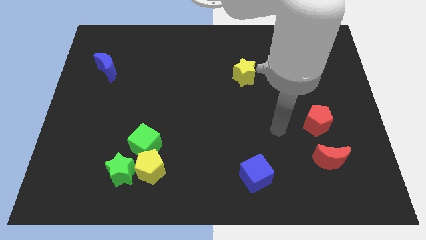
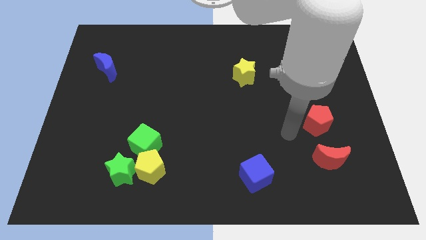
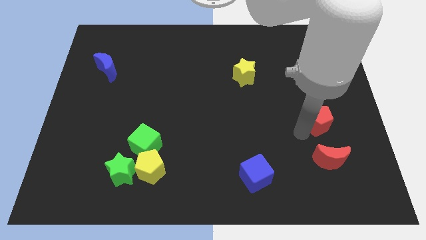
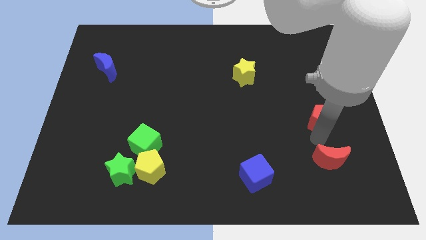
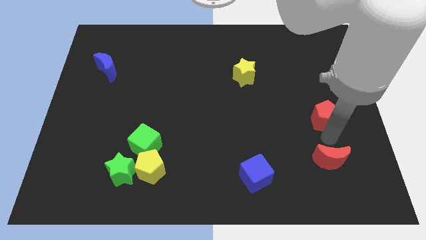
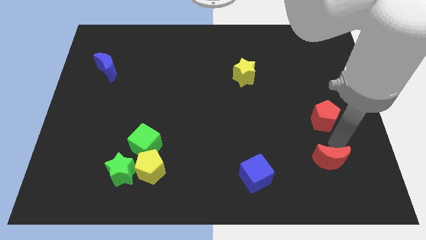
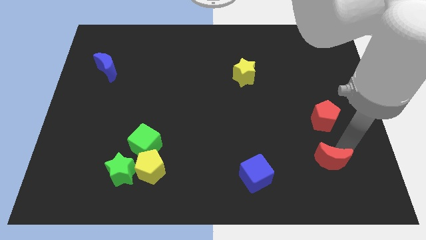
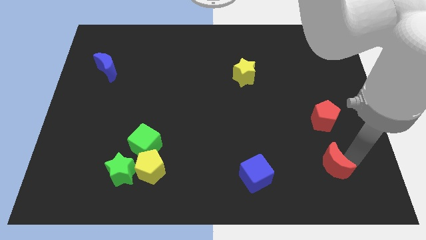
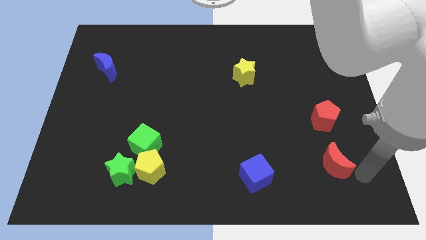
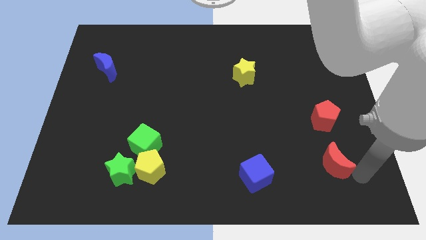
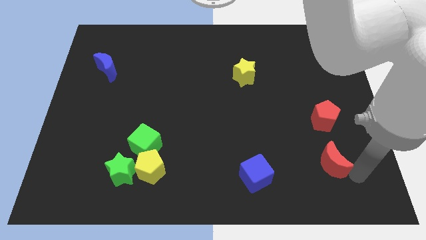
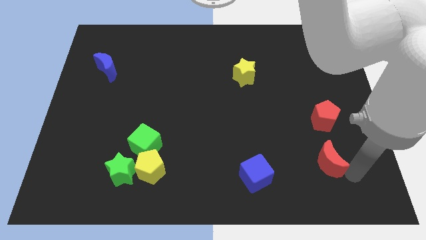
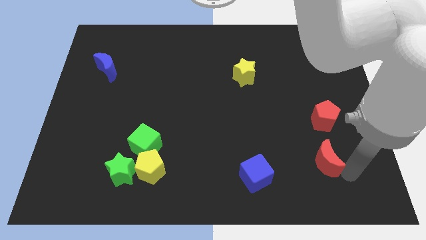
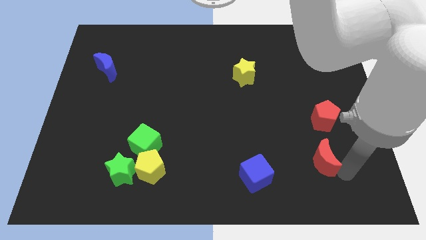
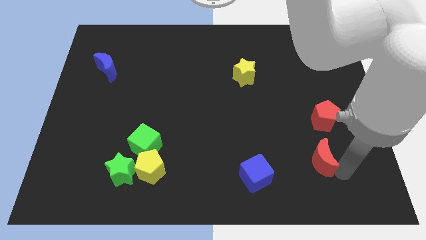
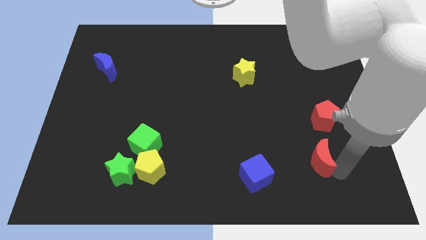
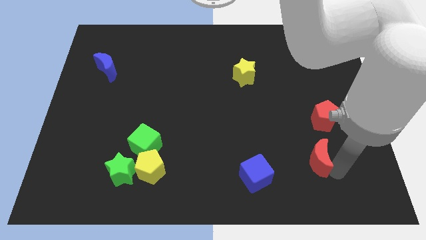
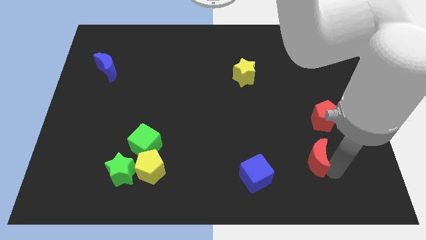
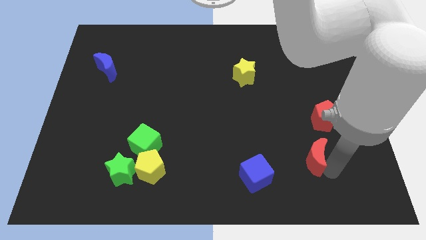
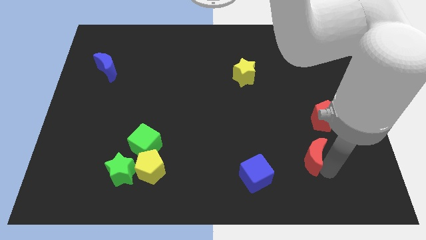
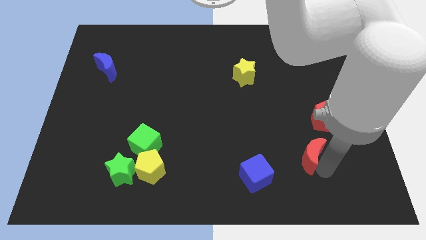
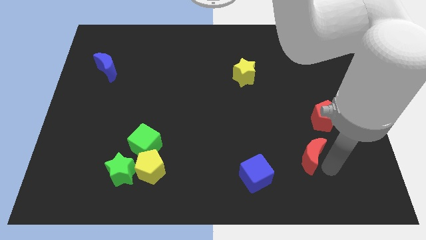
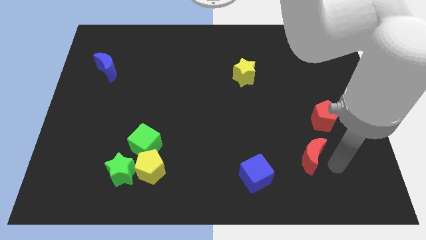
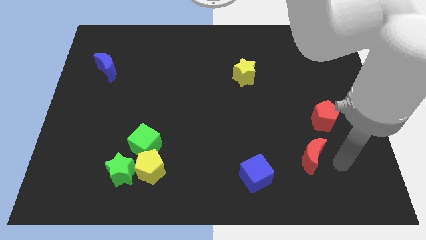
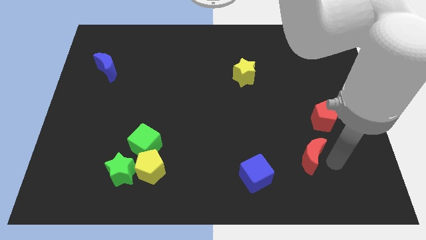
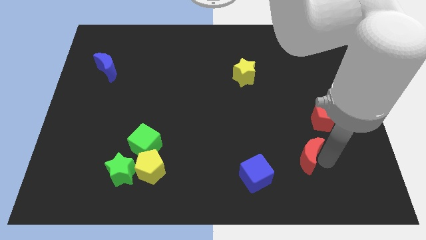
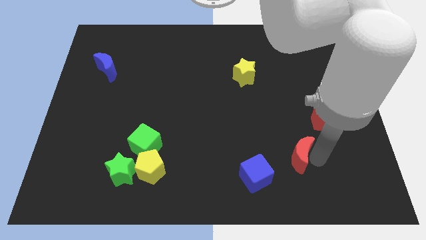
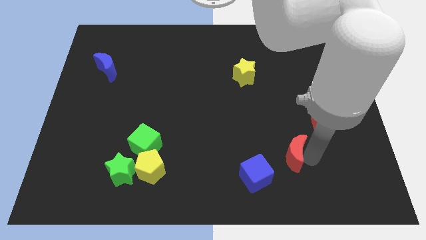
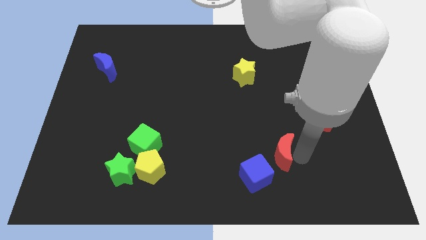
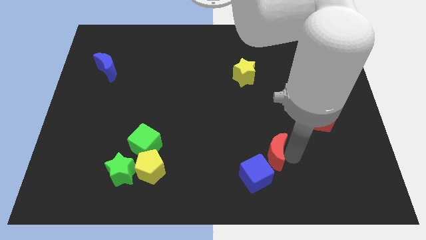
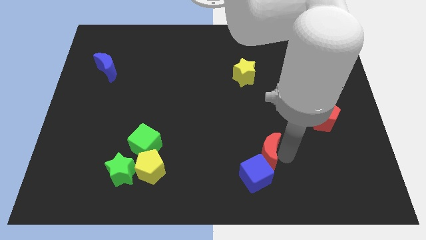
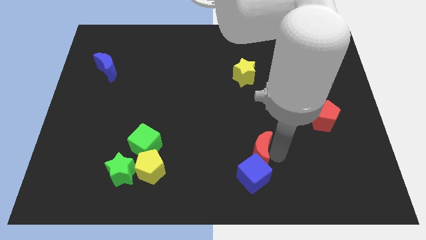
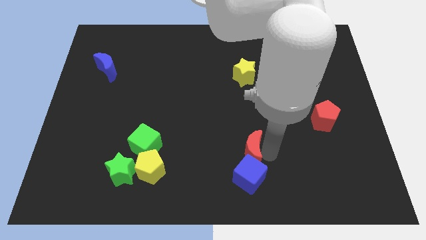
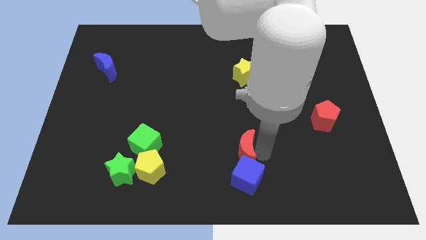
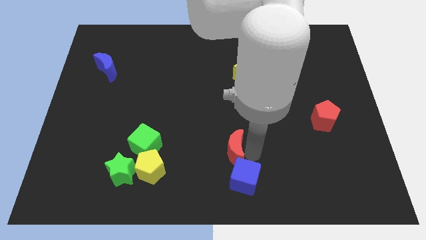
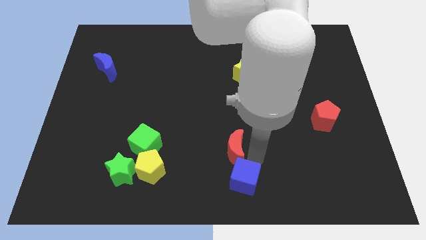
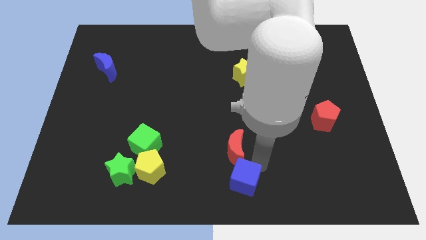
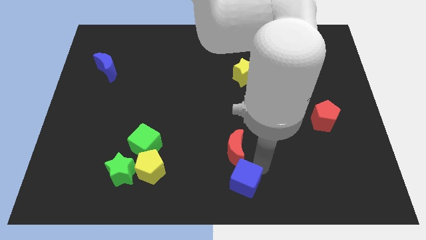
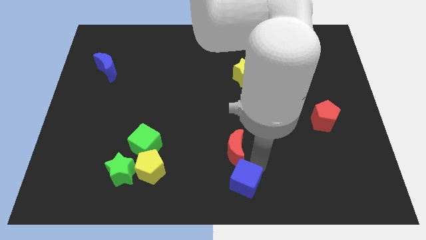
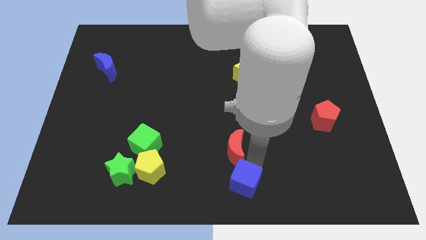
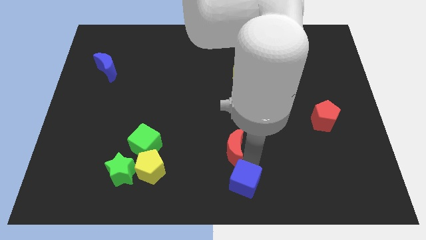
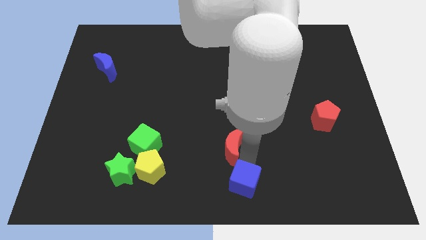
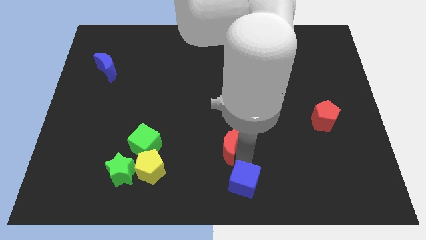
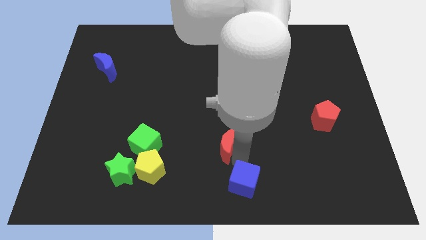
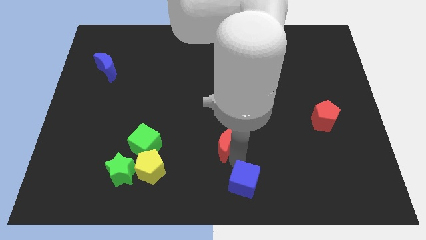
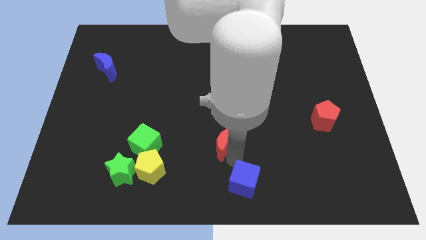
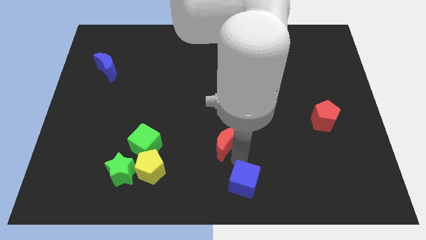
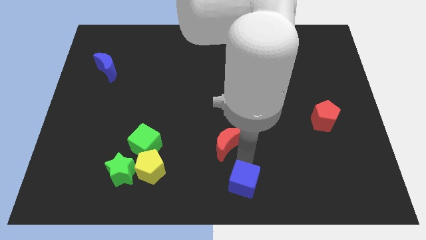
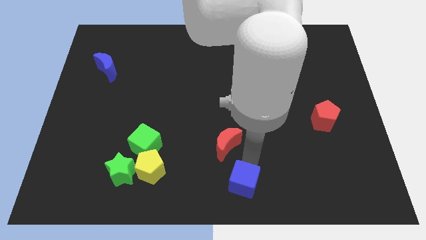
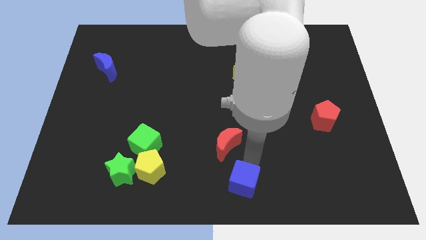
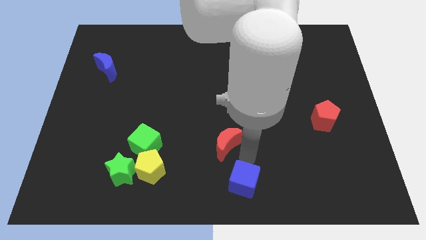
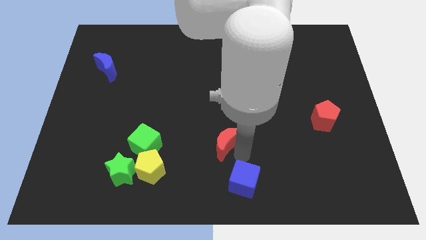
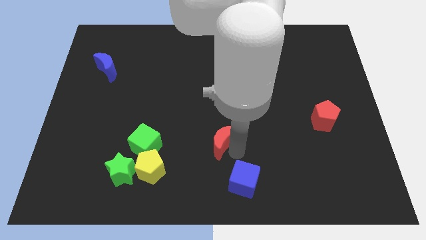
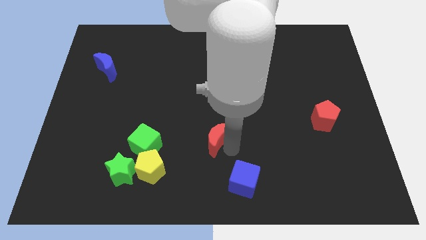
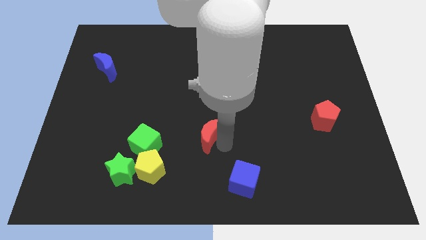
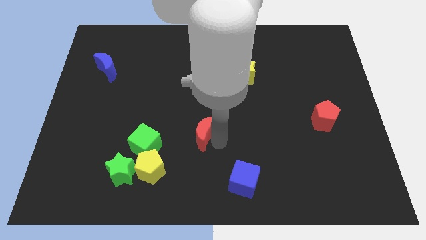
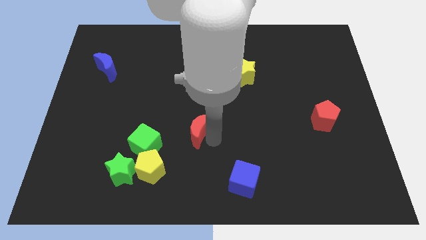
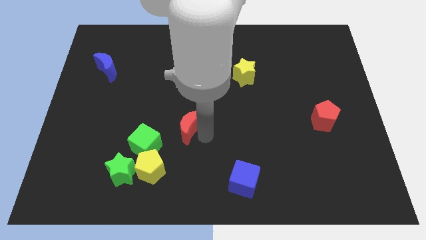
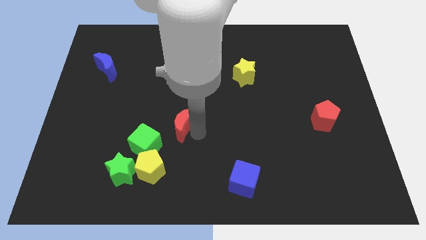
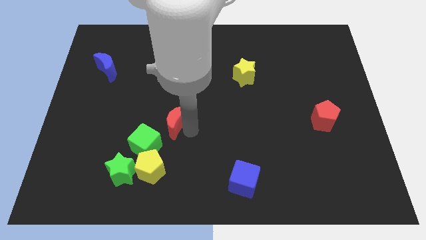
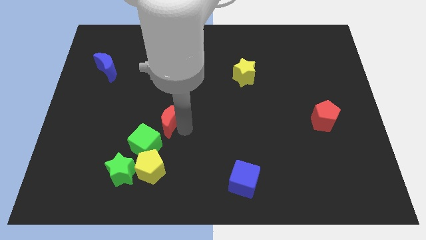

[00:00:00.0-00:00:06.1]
put the red moon to the top side of the green cube

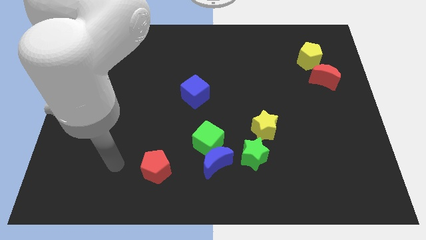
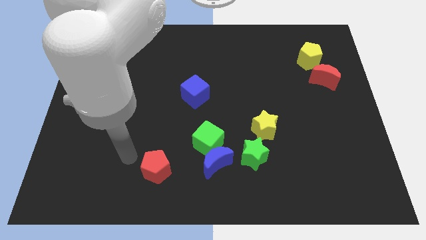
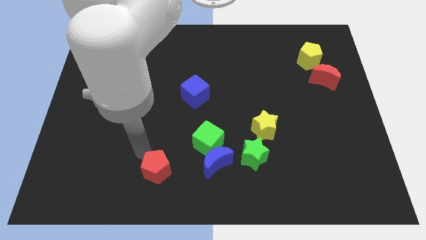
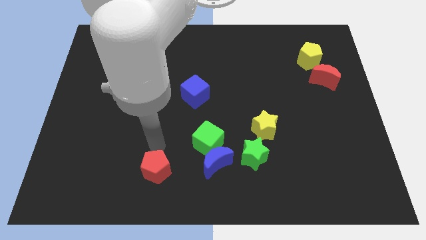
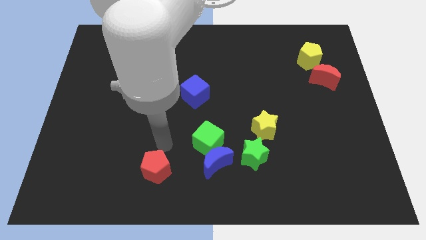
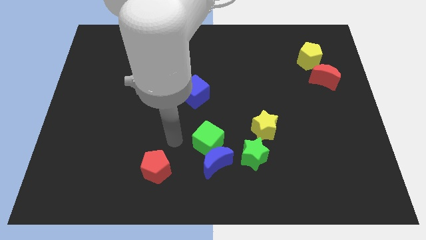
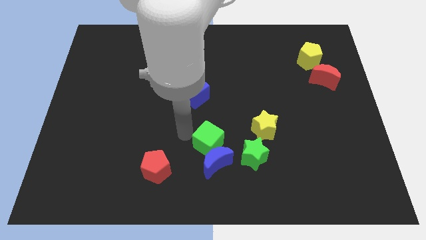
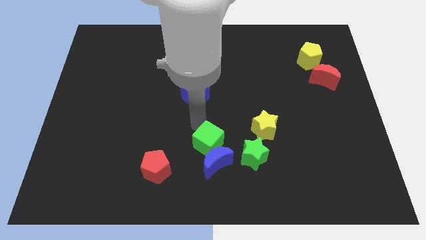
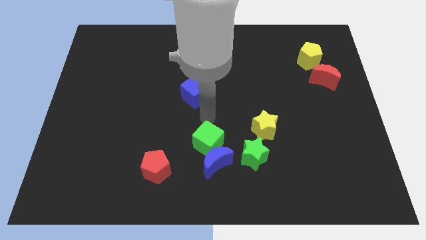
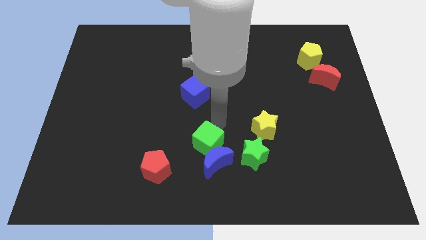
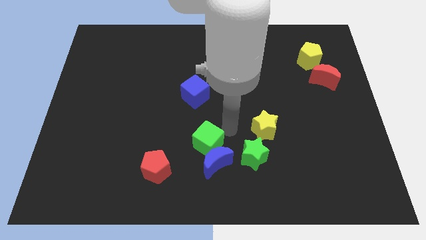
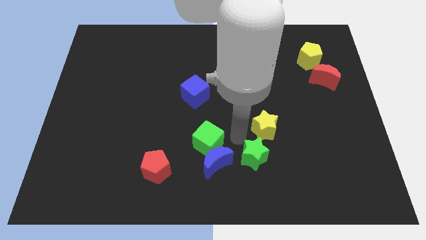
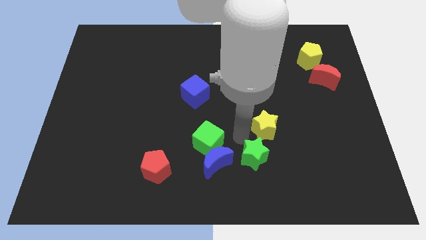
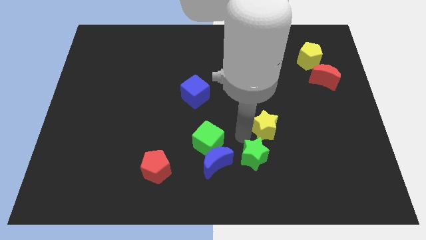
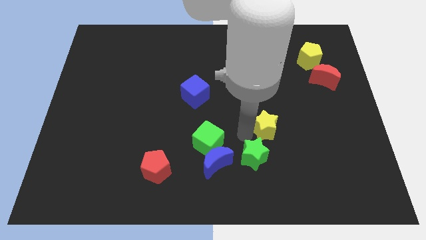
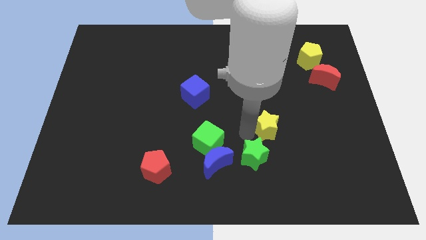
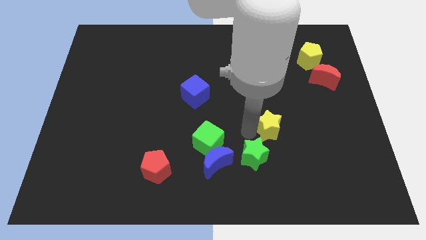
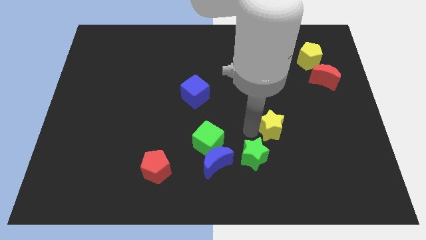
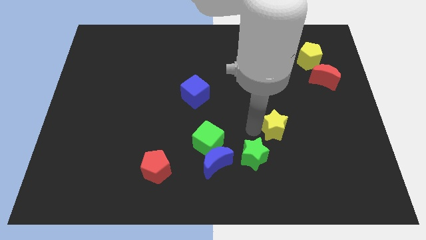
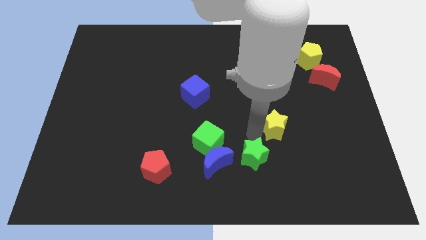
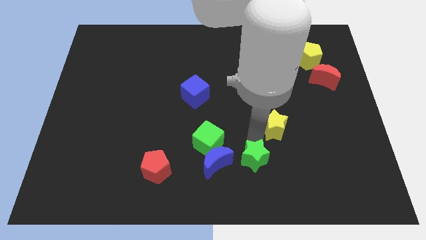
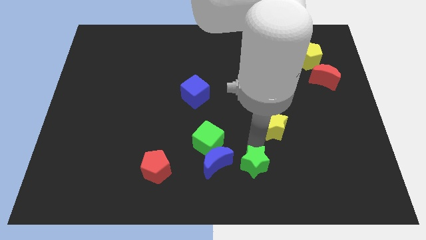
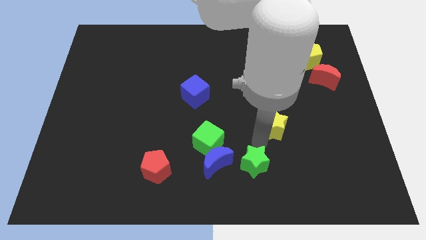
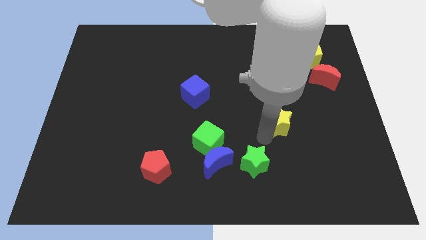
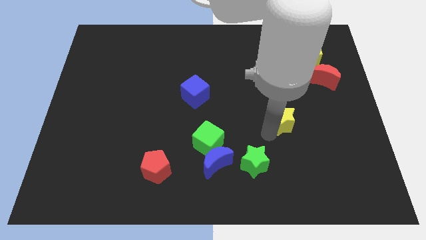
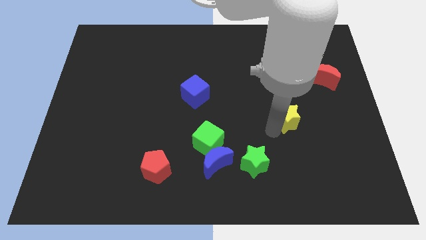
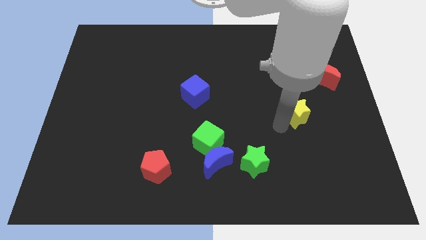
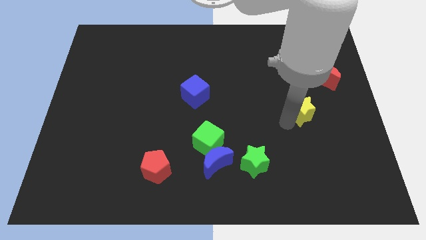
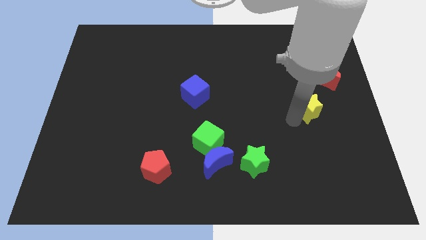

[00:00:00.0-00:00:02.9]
push the yellow star to the bottom left of the red moon
